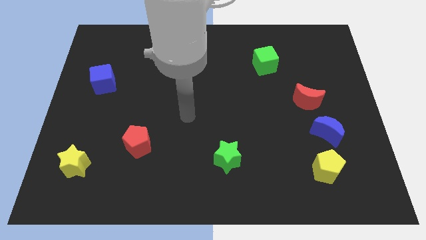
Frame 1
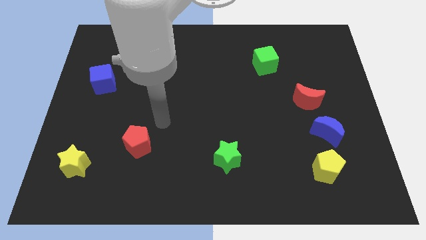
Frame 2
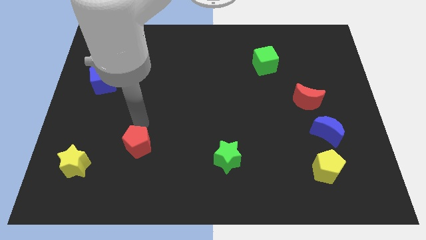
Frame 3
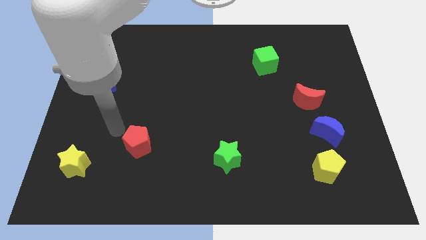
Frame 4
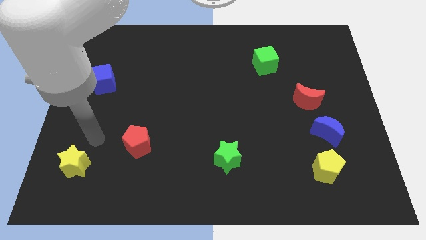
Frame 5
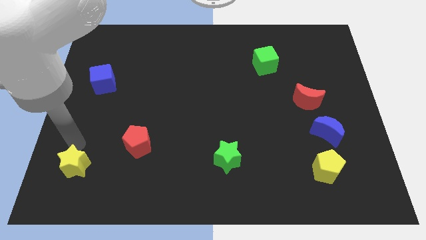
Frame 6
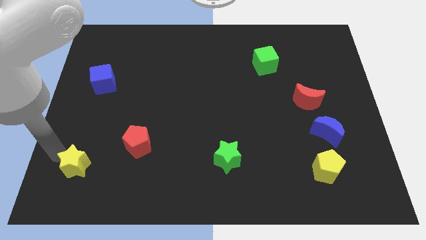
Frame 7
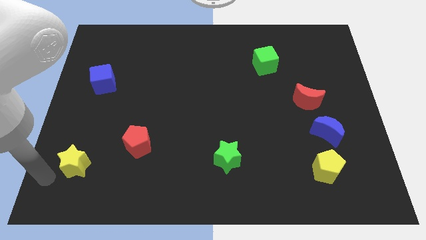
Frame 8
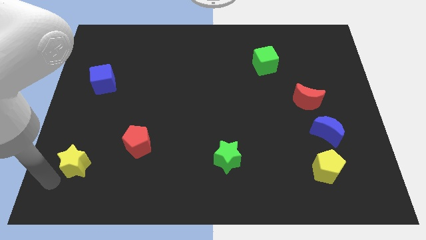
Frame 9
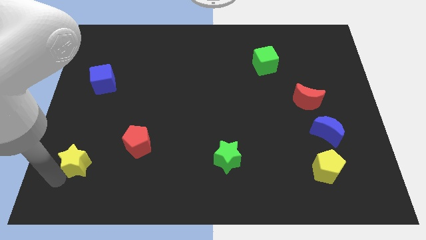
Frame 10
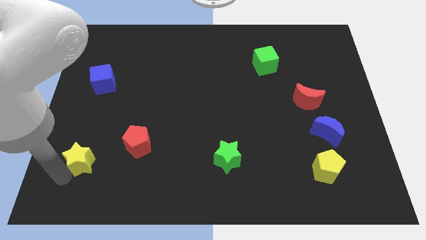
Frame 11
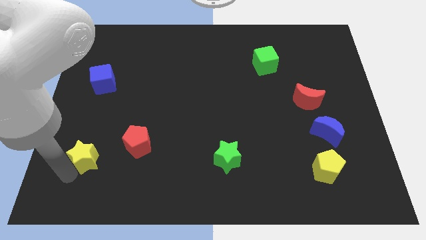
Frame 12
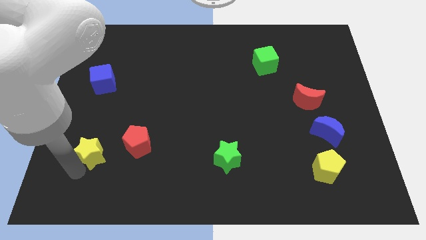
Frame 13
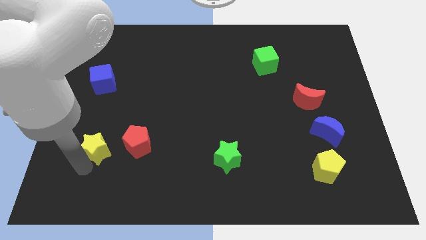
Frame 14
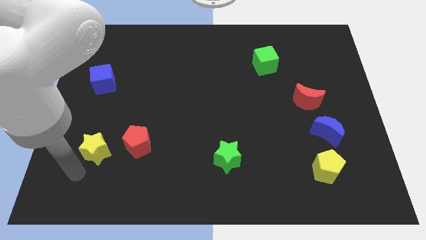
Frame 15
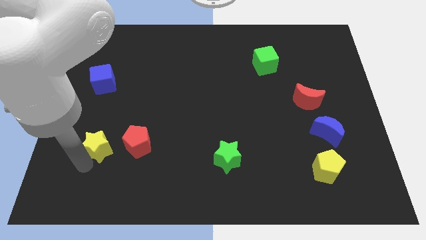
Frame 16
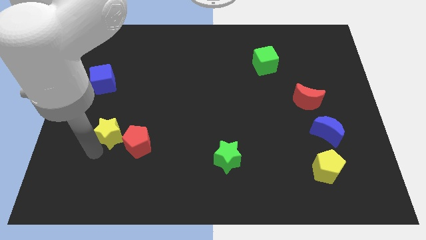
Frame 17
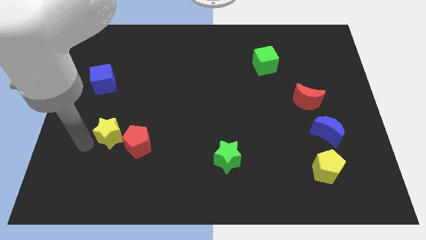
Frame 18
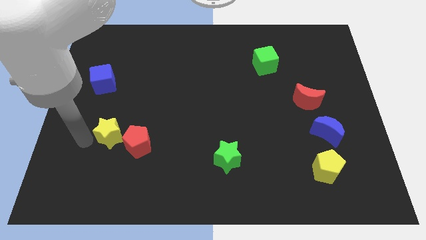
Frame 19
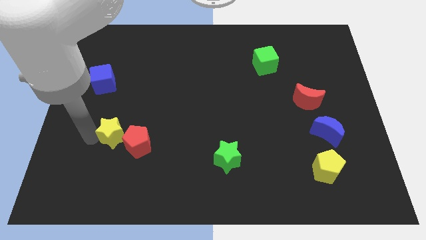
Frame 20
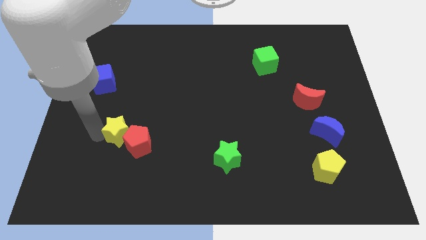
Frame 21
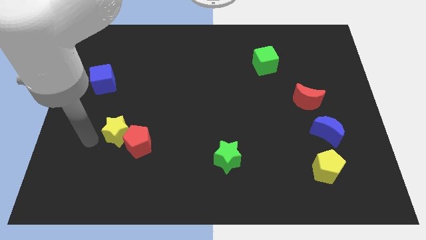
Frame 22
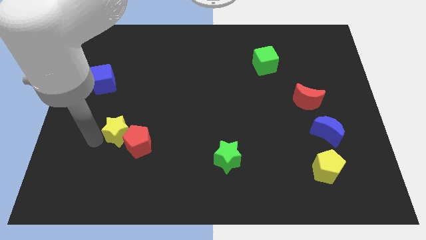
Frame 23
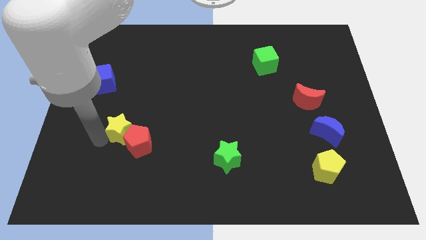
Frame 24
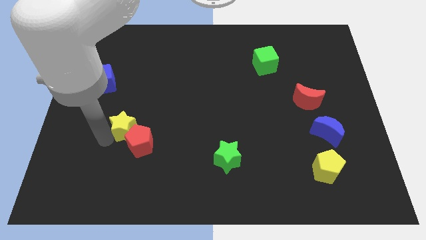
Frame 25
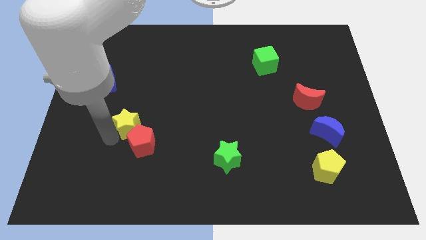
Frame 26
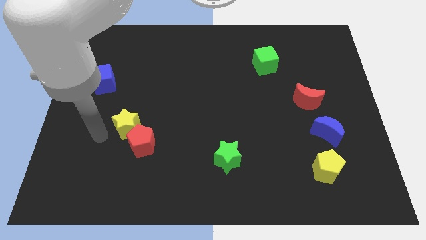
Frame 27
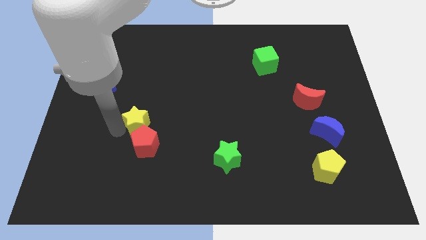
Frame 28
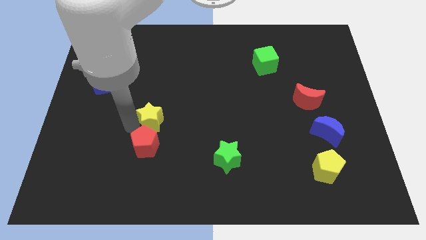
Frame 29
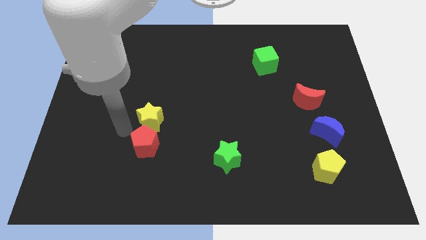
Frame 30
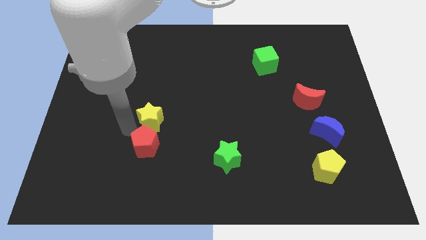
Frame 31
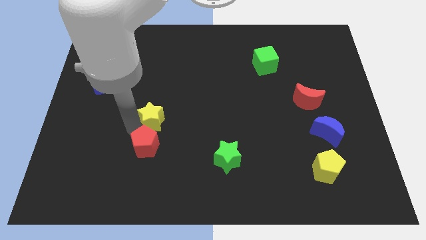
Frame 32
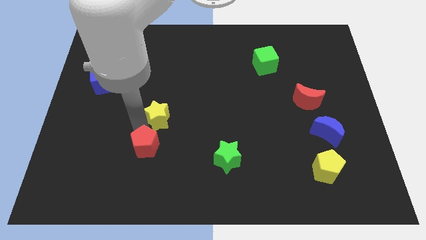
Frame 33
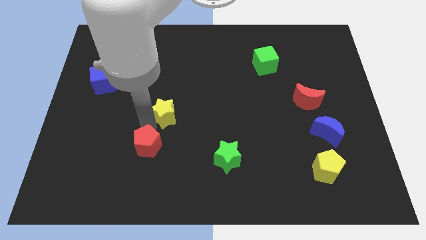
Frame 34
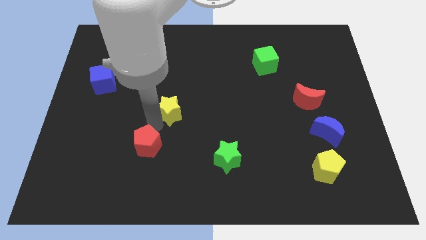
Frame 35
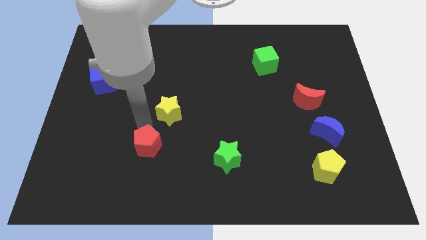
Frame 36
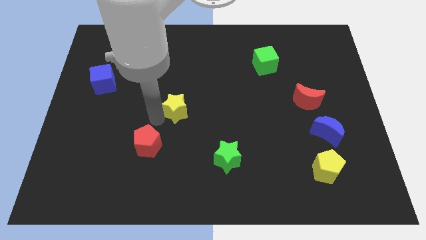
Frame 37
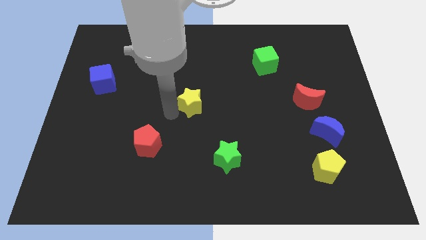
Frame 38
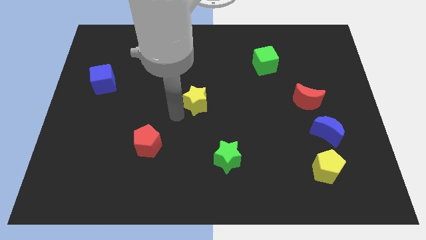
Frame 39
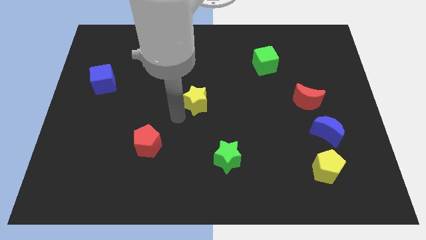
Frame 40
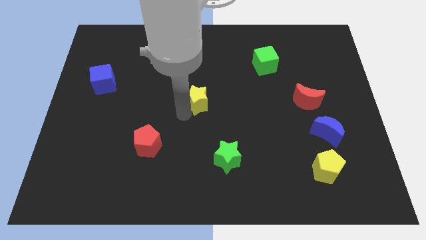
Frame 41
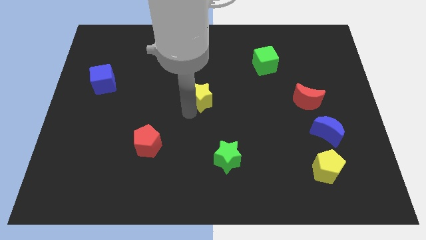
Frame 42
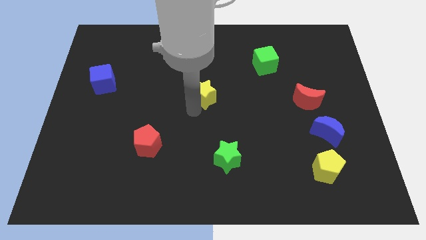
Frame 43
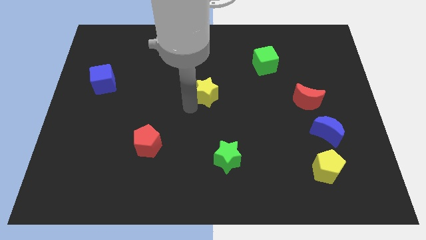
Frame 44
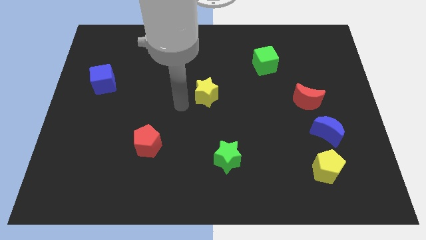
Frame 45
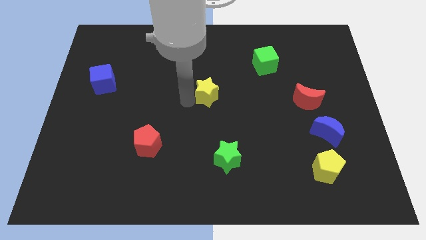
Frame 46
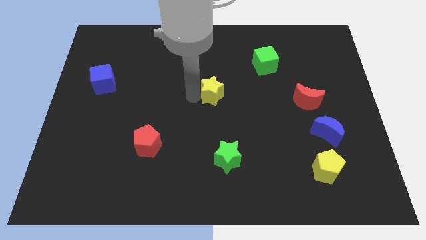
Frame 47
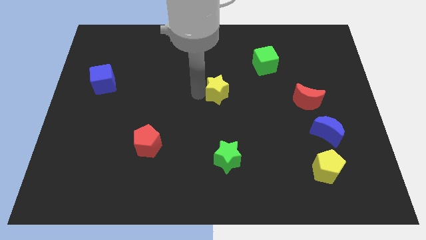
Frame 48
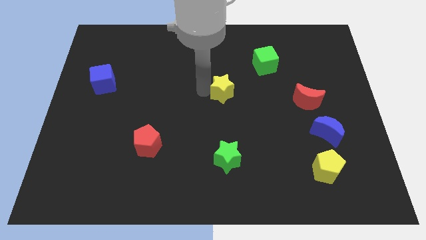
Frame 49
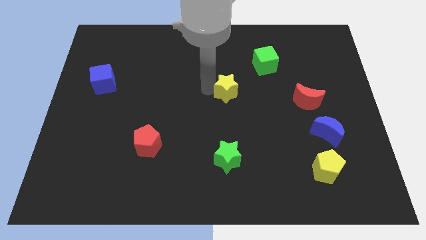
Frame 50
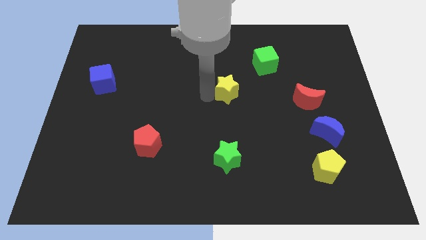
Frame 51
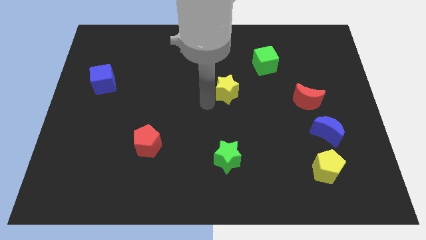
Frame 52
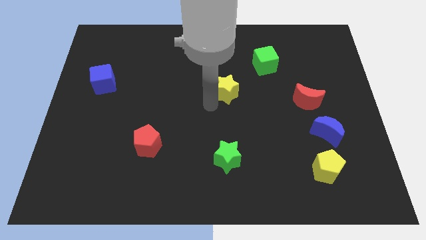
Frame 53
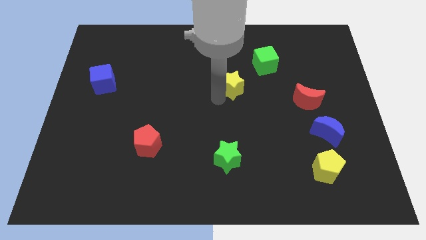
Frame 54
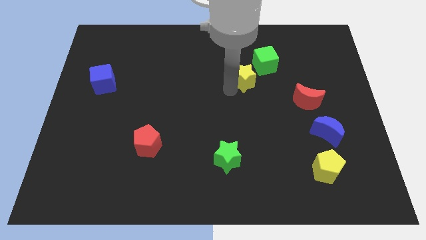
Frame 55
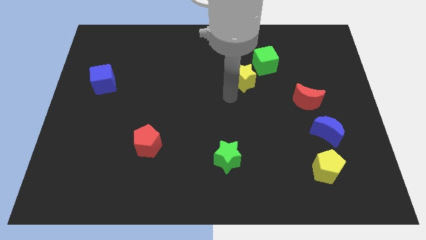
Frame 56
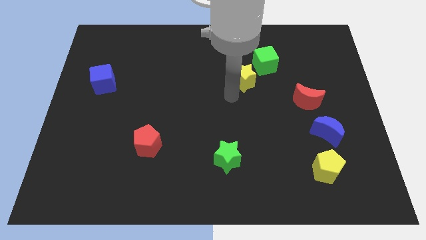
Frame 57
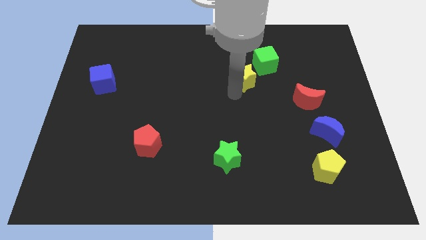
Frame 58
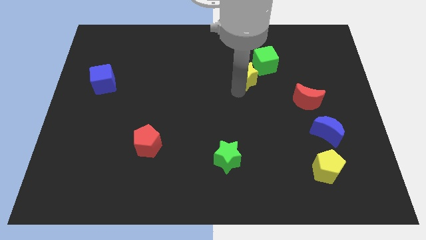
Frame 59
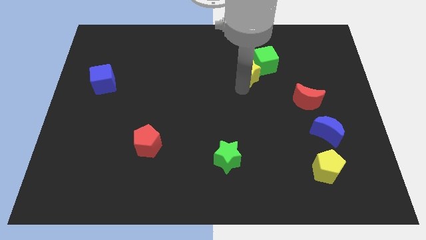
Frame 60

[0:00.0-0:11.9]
slide the yellow star close to the green cube

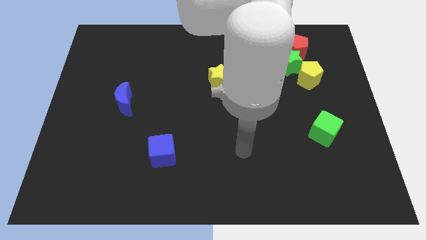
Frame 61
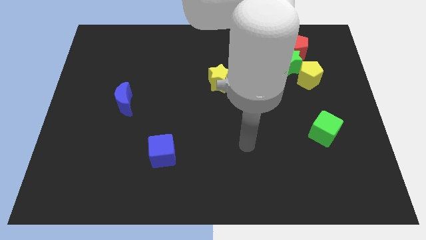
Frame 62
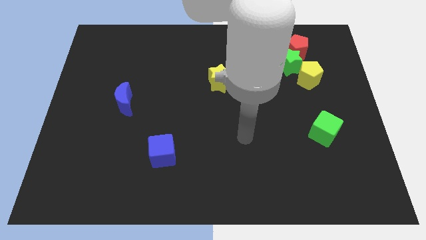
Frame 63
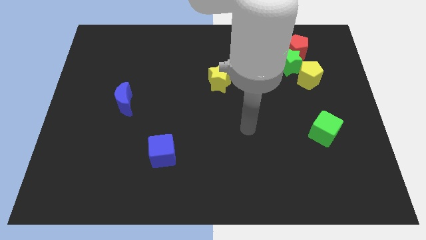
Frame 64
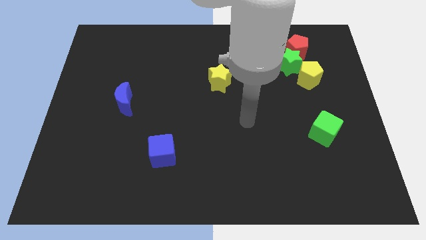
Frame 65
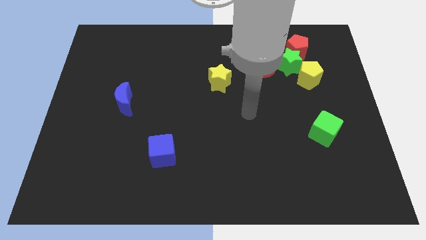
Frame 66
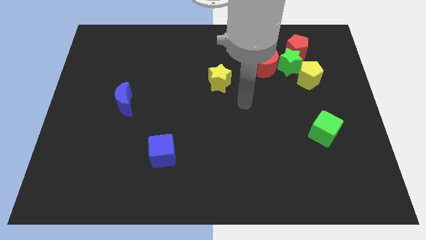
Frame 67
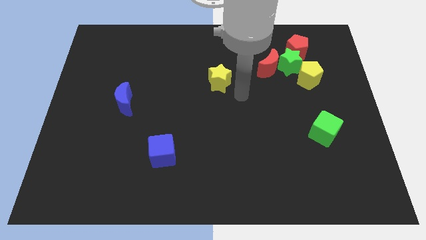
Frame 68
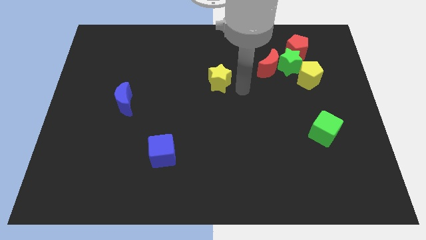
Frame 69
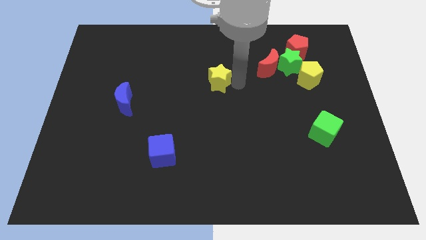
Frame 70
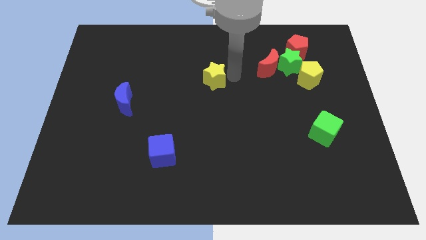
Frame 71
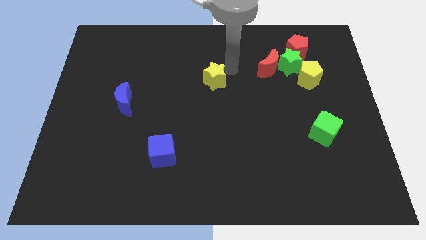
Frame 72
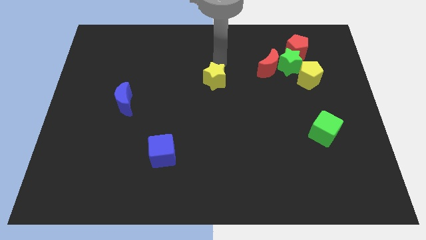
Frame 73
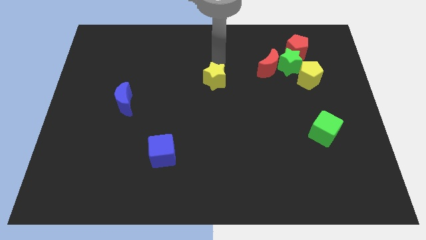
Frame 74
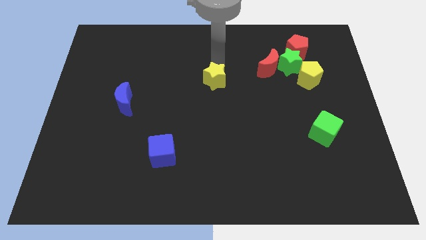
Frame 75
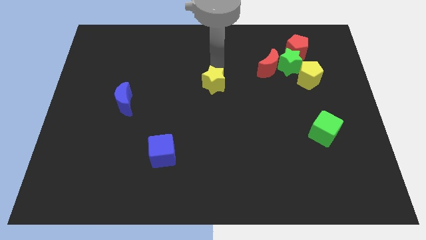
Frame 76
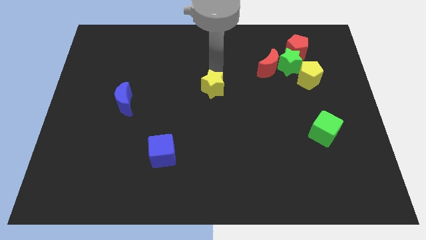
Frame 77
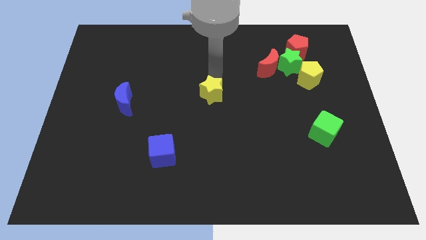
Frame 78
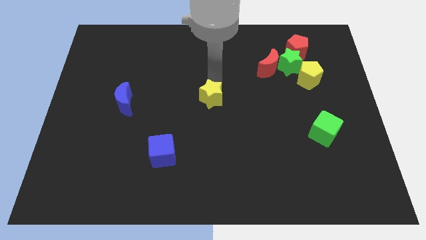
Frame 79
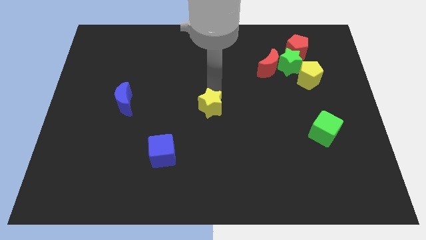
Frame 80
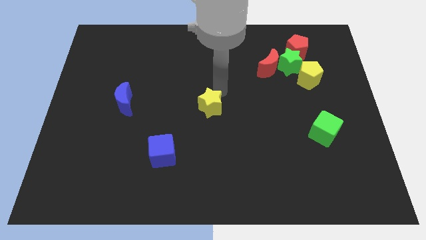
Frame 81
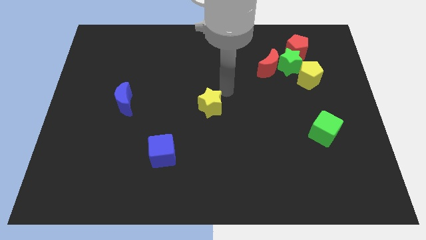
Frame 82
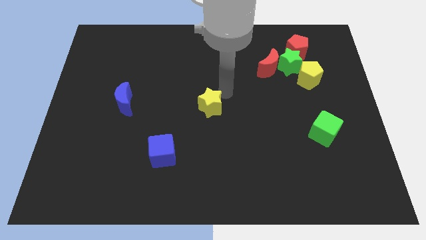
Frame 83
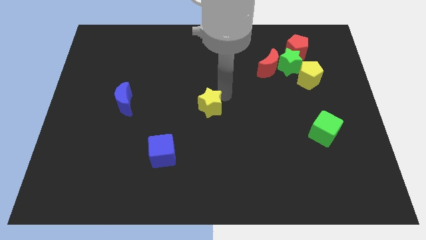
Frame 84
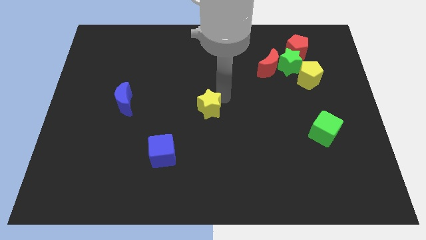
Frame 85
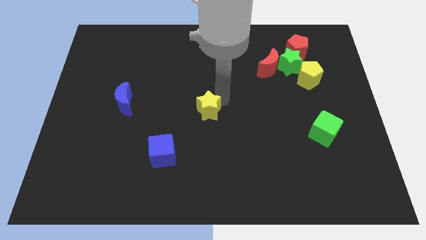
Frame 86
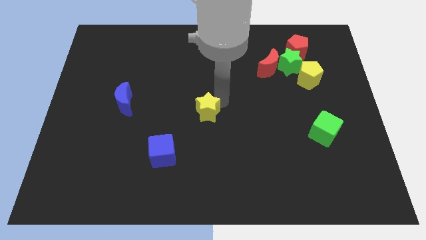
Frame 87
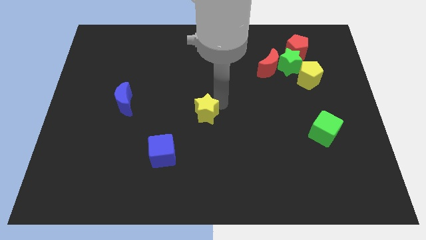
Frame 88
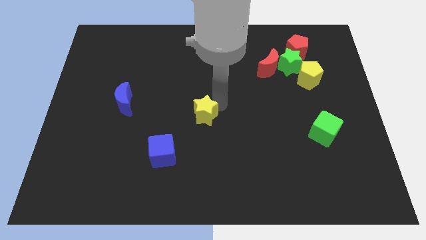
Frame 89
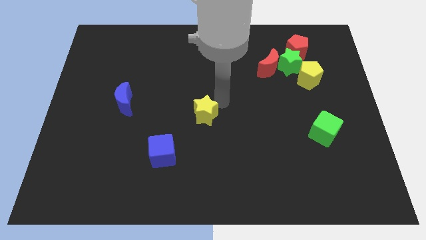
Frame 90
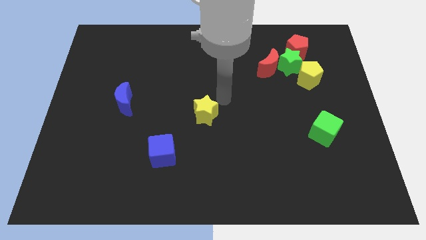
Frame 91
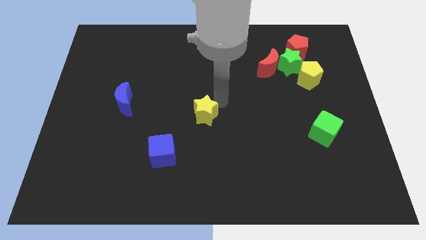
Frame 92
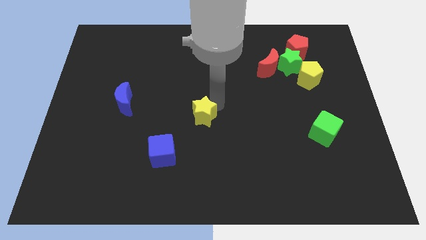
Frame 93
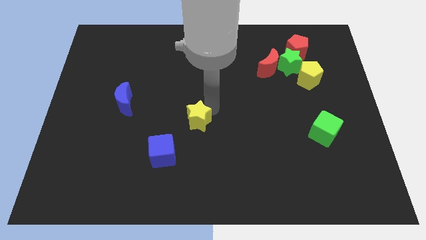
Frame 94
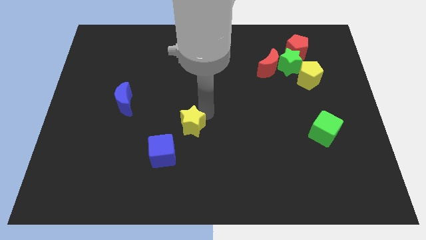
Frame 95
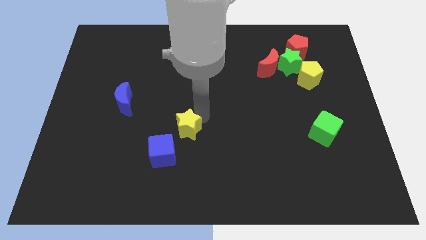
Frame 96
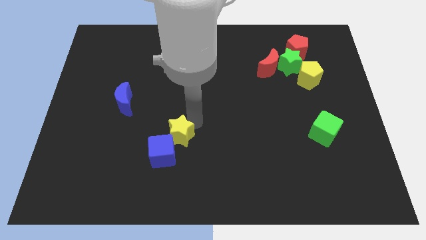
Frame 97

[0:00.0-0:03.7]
slide the yellow star to the blue cube
